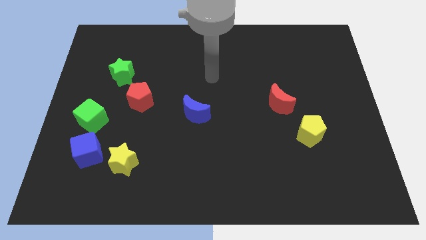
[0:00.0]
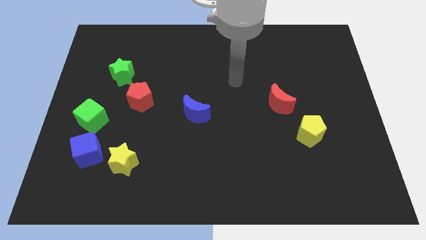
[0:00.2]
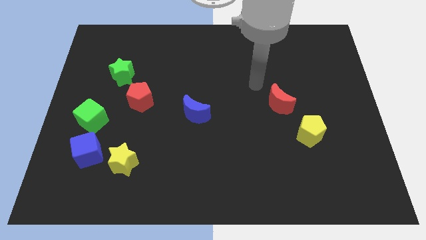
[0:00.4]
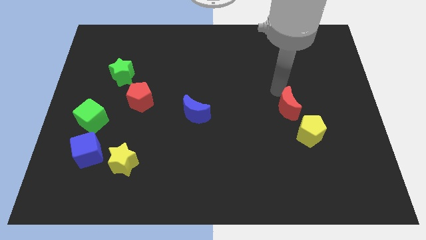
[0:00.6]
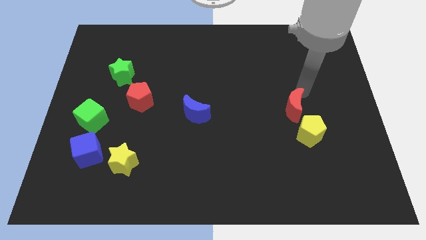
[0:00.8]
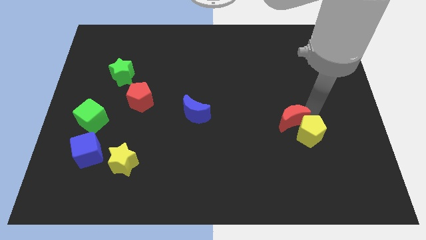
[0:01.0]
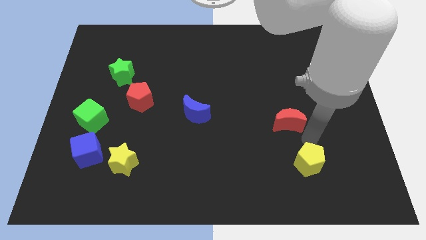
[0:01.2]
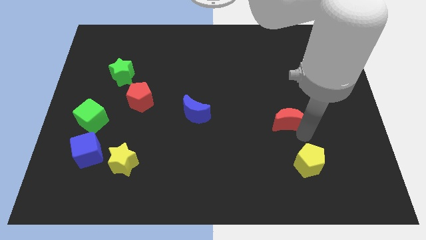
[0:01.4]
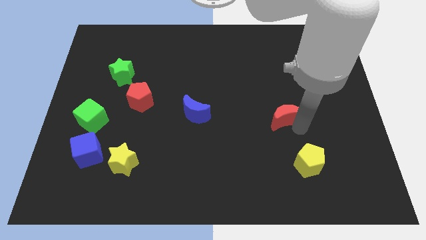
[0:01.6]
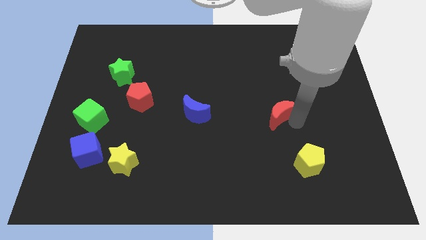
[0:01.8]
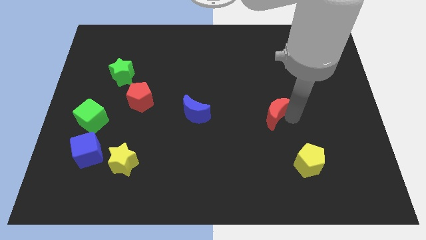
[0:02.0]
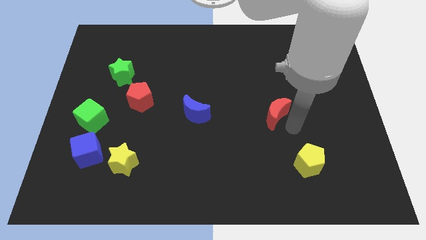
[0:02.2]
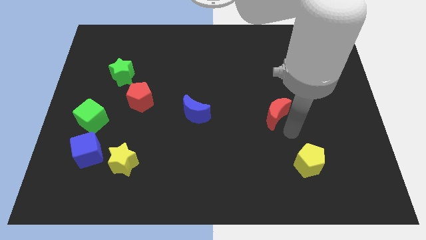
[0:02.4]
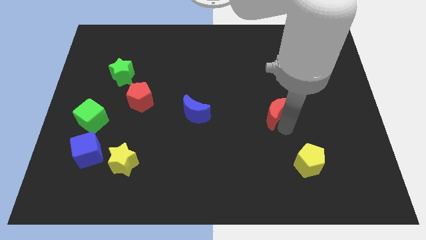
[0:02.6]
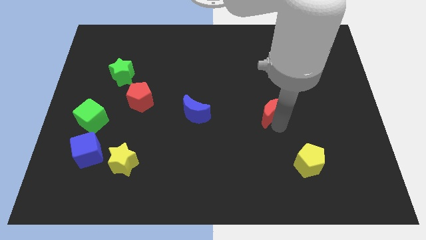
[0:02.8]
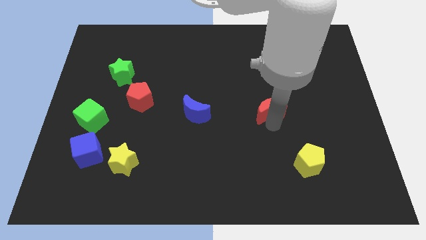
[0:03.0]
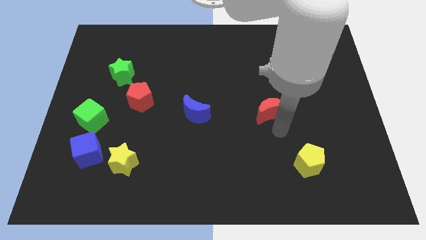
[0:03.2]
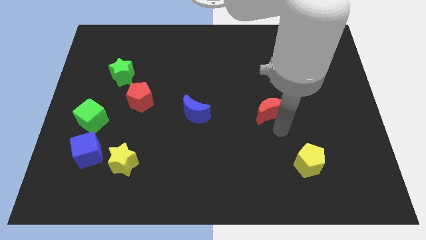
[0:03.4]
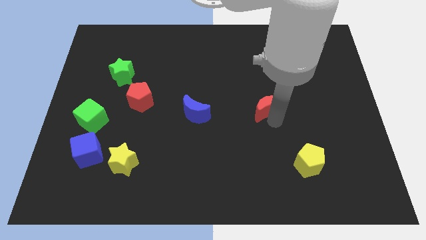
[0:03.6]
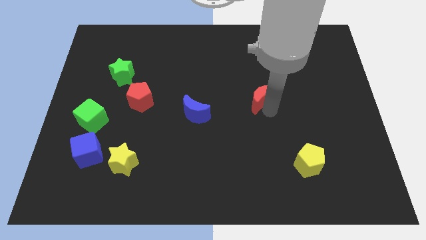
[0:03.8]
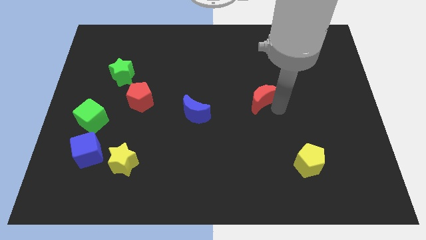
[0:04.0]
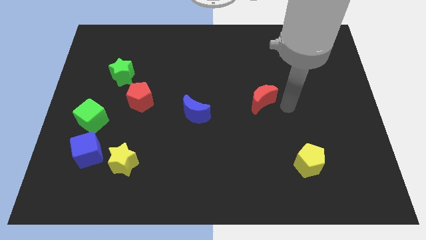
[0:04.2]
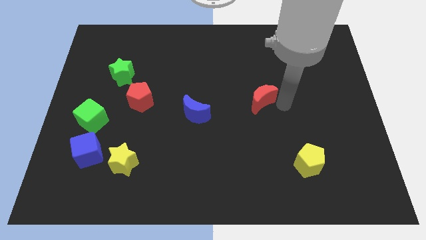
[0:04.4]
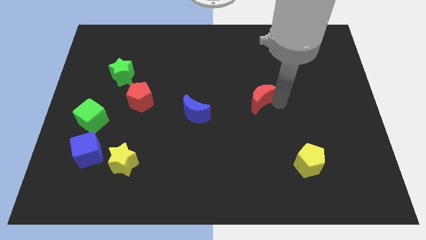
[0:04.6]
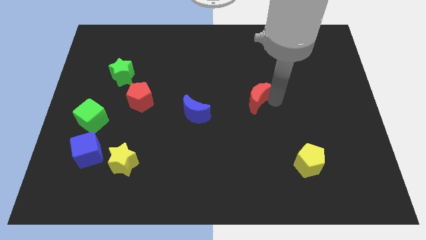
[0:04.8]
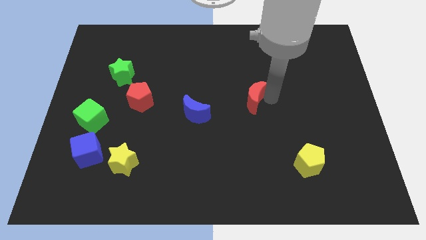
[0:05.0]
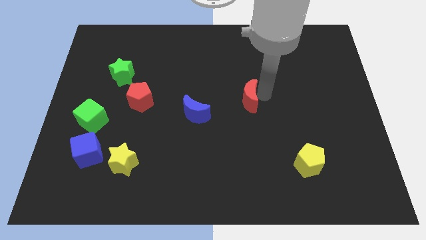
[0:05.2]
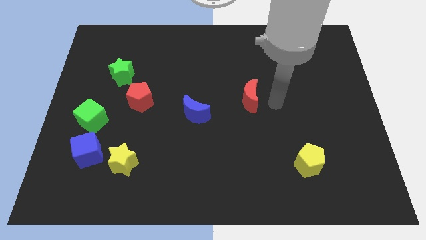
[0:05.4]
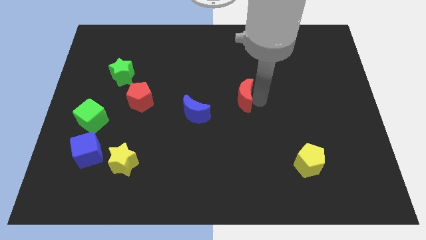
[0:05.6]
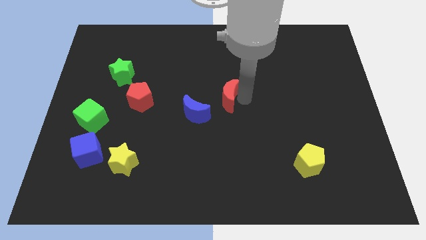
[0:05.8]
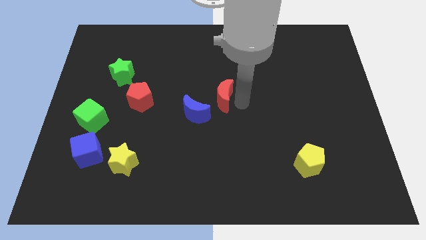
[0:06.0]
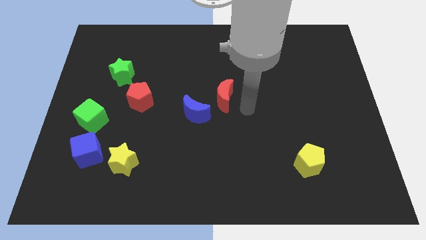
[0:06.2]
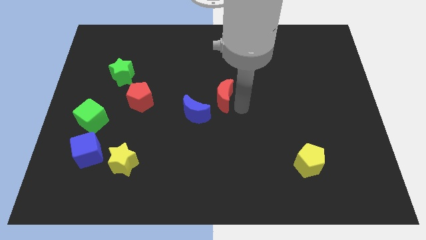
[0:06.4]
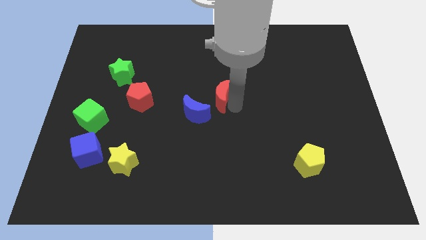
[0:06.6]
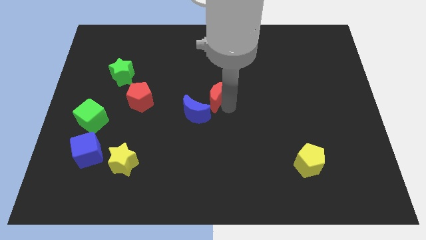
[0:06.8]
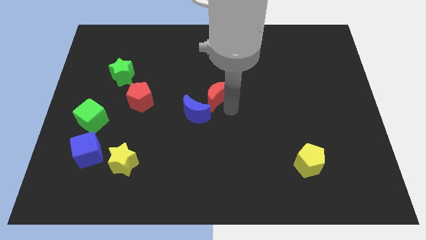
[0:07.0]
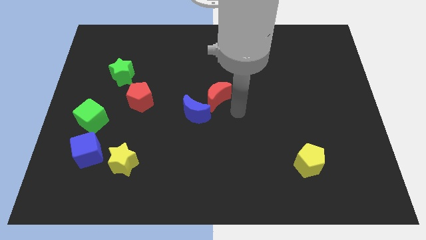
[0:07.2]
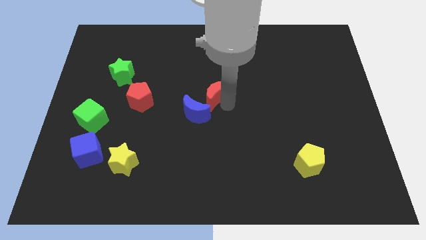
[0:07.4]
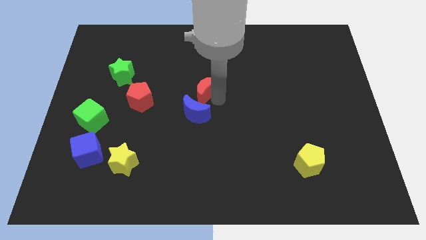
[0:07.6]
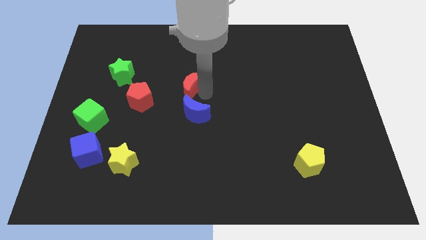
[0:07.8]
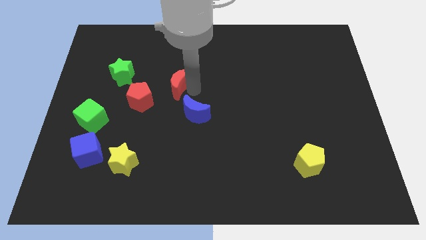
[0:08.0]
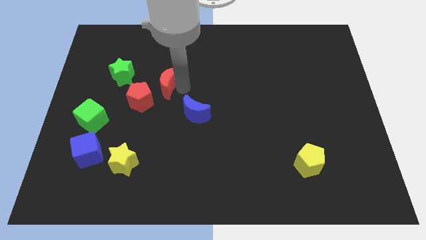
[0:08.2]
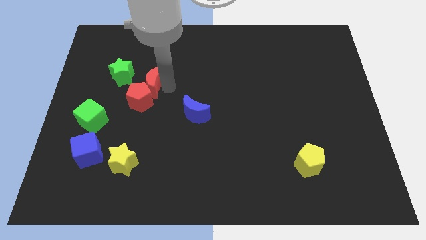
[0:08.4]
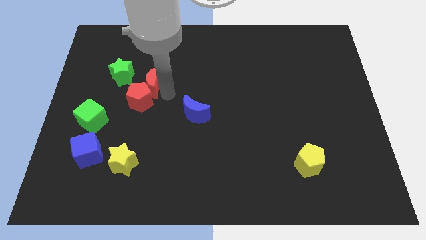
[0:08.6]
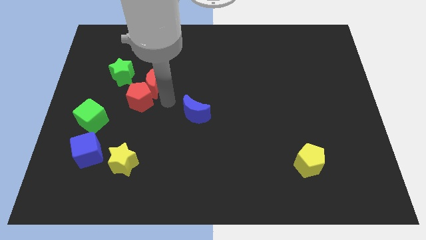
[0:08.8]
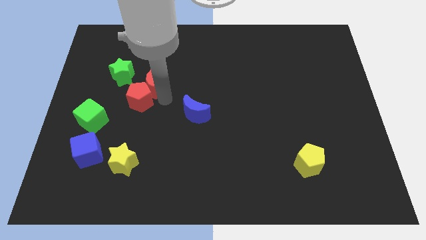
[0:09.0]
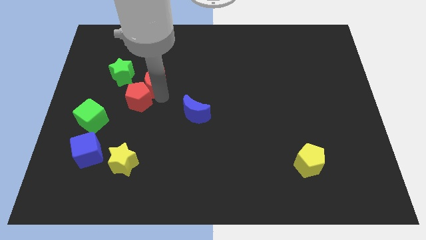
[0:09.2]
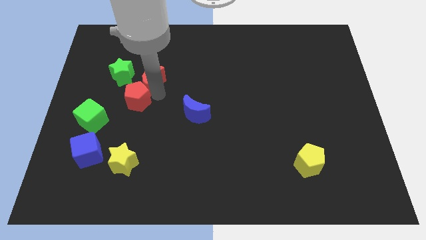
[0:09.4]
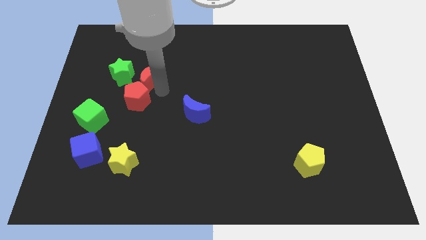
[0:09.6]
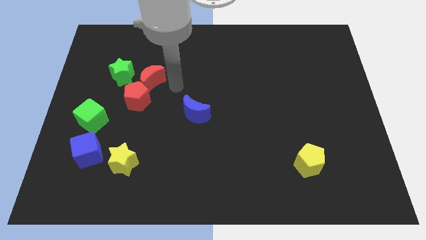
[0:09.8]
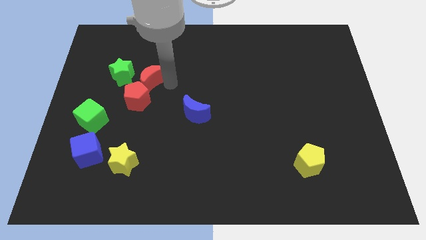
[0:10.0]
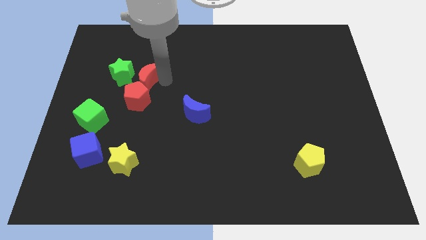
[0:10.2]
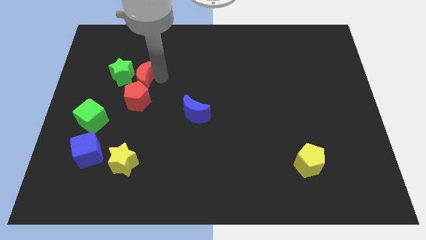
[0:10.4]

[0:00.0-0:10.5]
push the red moon to the green star

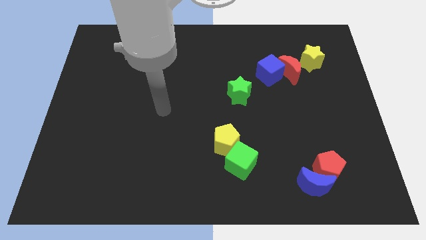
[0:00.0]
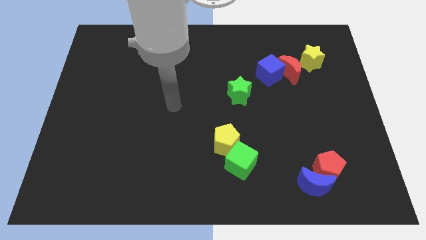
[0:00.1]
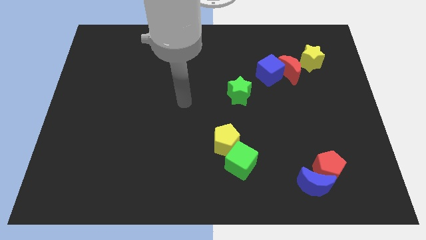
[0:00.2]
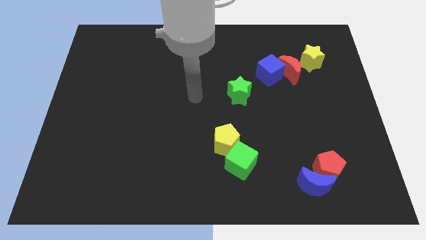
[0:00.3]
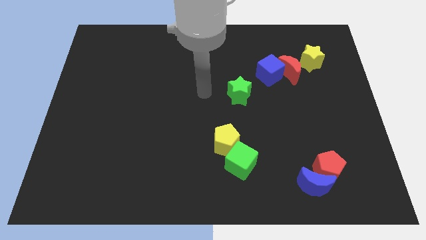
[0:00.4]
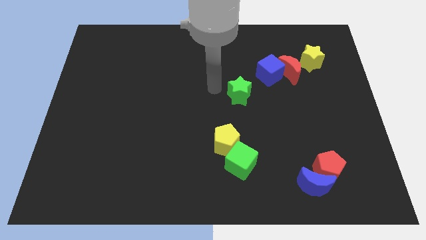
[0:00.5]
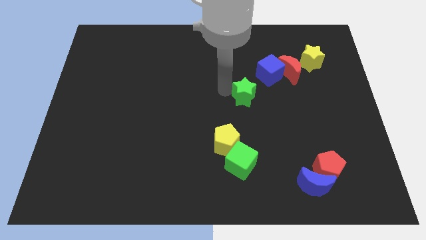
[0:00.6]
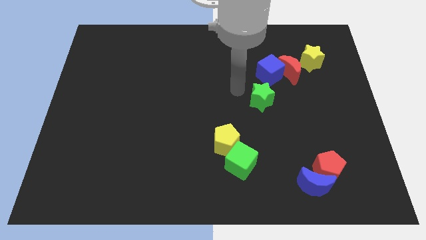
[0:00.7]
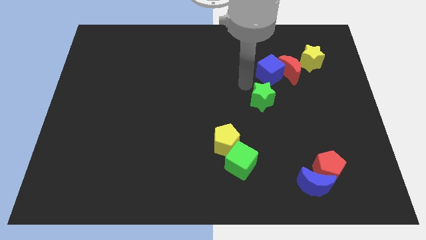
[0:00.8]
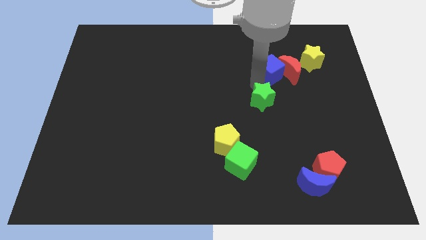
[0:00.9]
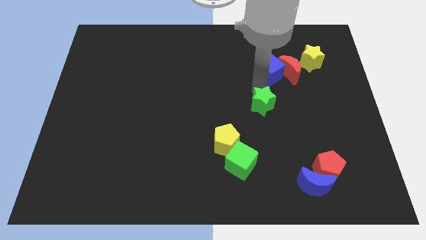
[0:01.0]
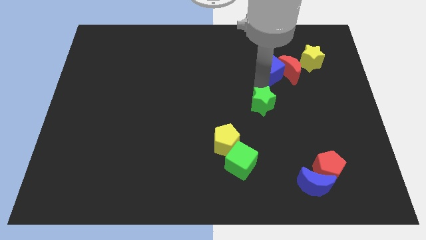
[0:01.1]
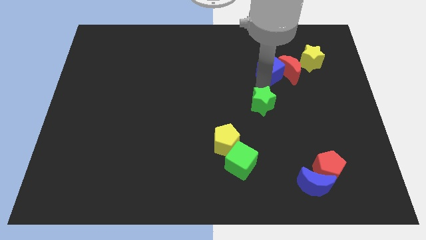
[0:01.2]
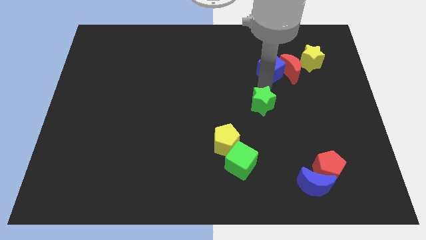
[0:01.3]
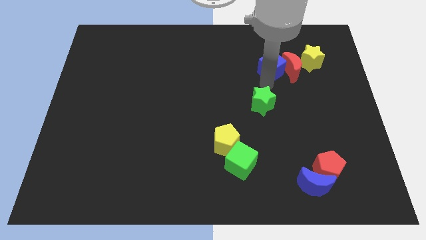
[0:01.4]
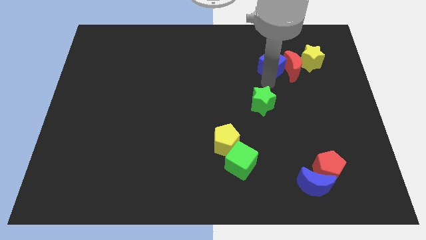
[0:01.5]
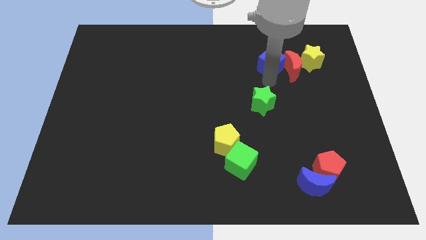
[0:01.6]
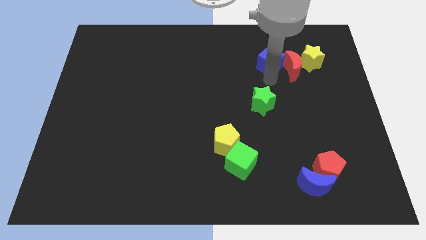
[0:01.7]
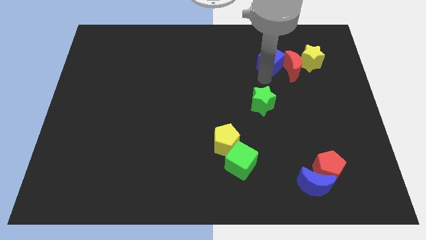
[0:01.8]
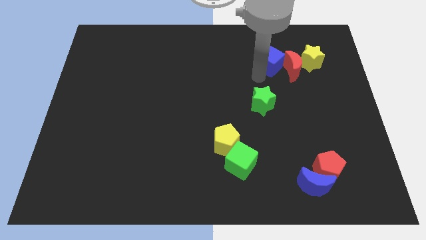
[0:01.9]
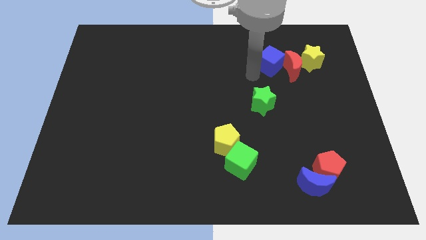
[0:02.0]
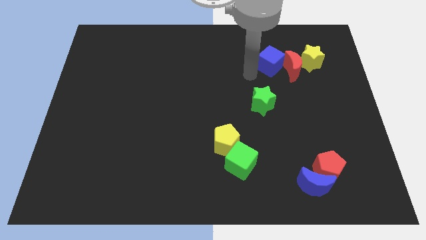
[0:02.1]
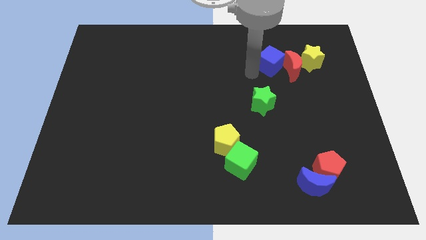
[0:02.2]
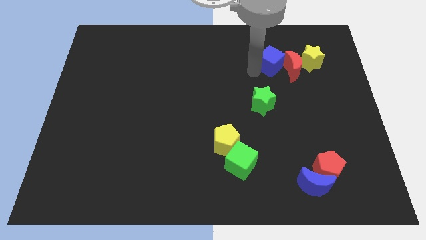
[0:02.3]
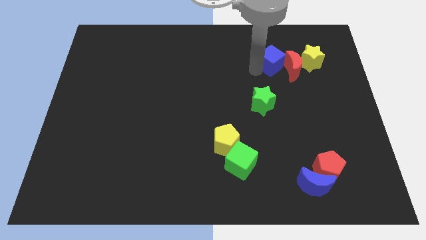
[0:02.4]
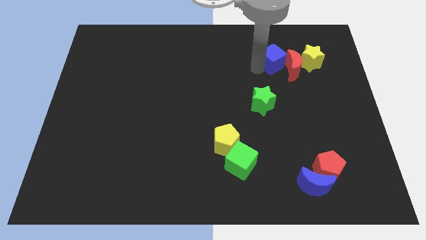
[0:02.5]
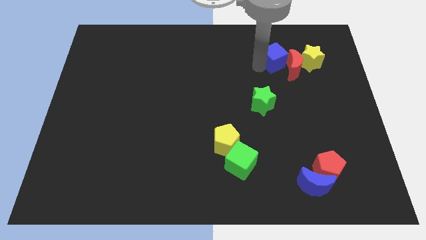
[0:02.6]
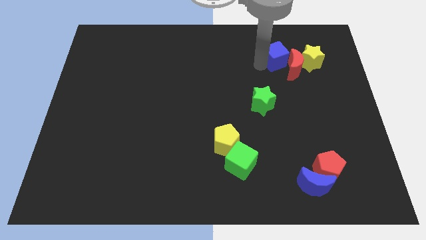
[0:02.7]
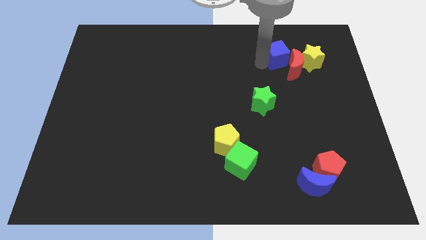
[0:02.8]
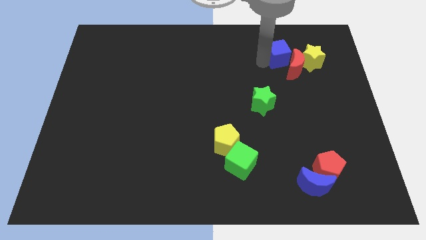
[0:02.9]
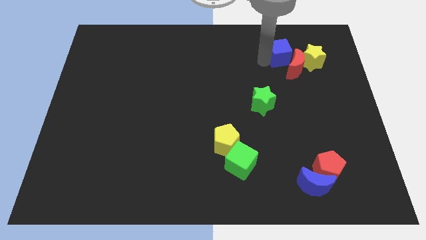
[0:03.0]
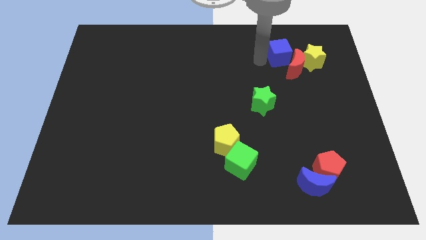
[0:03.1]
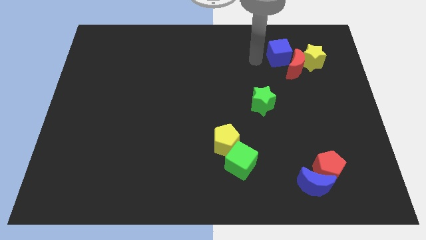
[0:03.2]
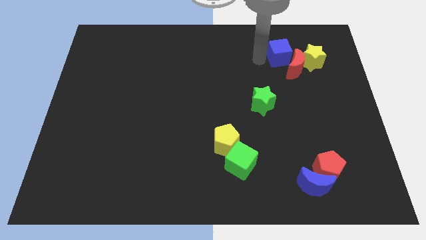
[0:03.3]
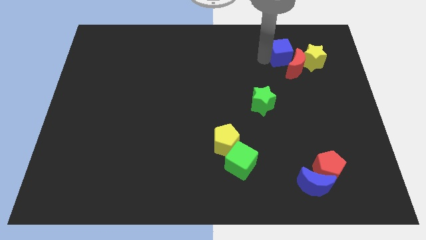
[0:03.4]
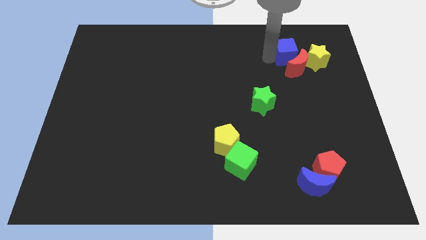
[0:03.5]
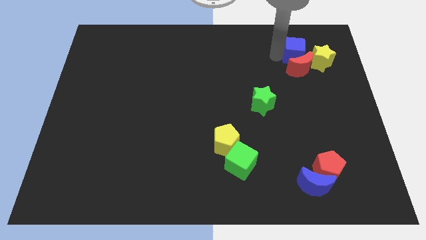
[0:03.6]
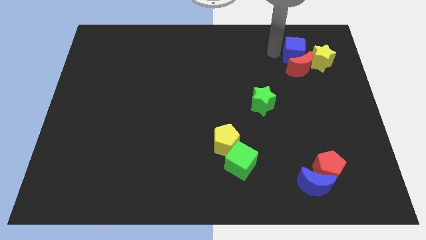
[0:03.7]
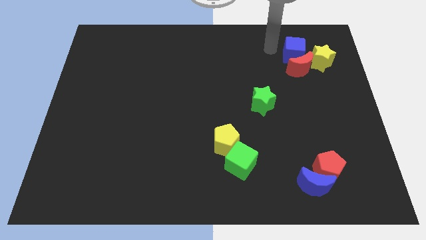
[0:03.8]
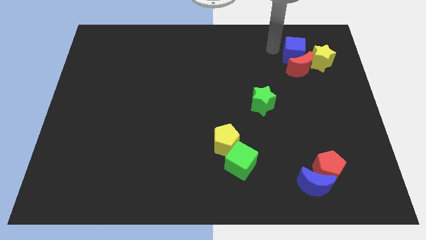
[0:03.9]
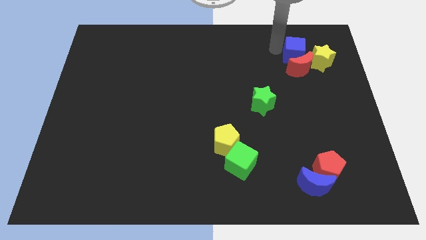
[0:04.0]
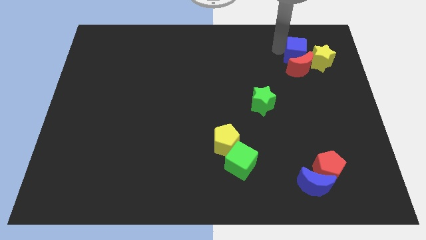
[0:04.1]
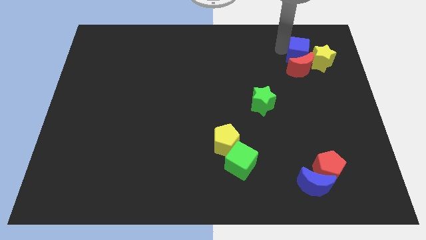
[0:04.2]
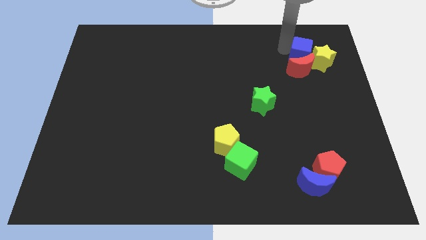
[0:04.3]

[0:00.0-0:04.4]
slide the blue cube to the yellow star
